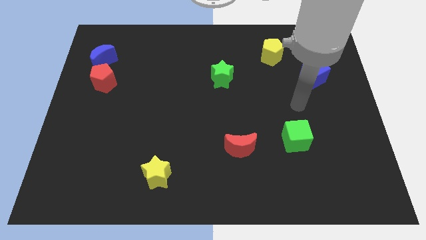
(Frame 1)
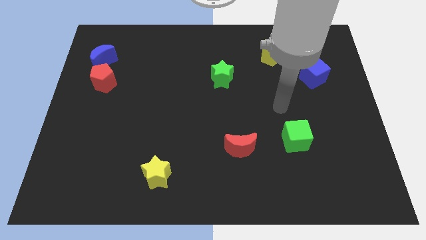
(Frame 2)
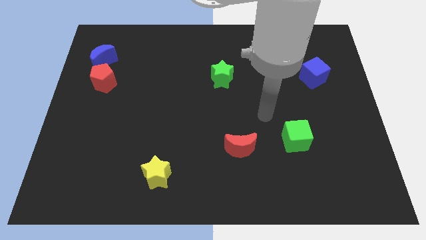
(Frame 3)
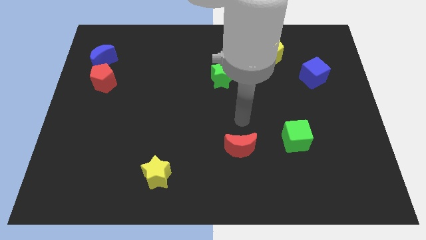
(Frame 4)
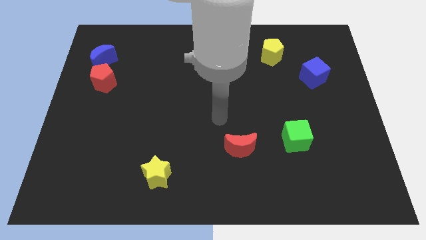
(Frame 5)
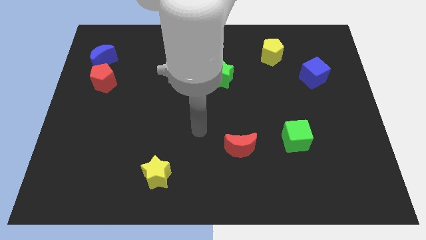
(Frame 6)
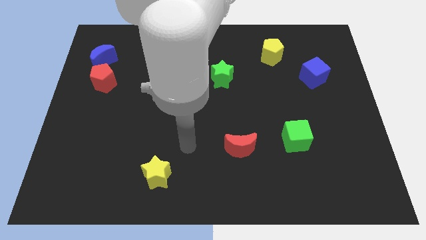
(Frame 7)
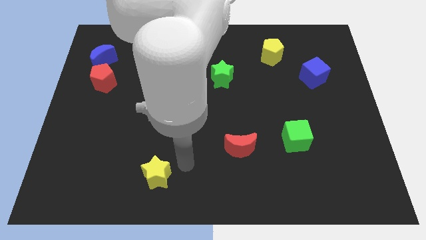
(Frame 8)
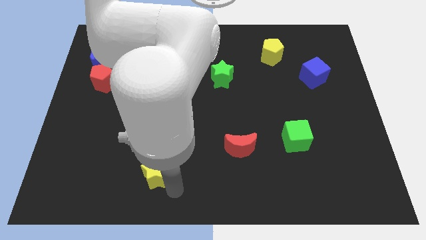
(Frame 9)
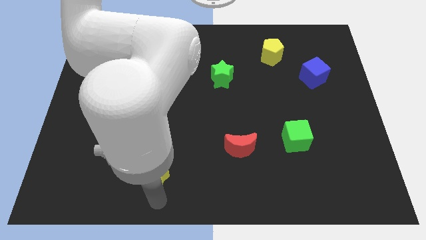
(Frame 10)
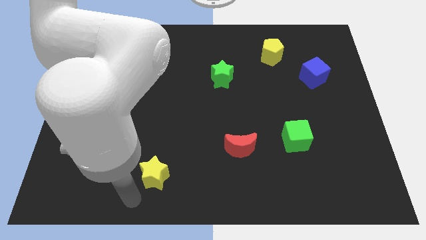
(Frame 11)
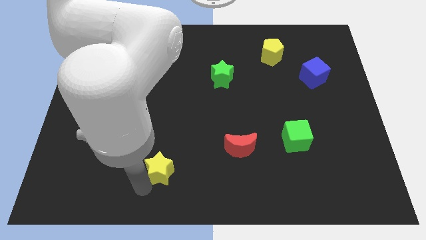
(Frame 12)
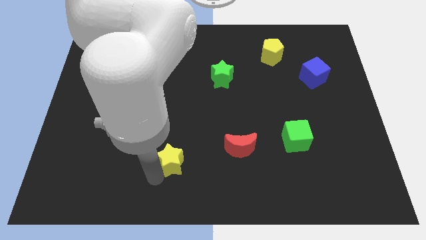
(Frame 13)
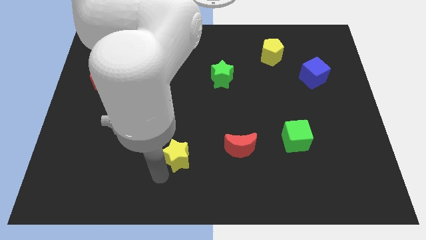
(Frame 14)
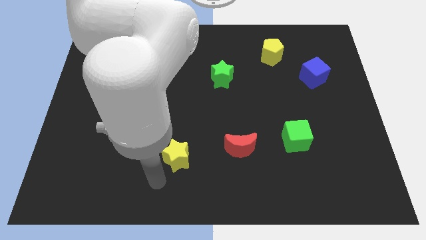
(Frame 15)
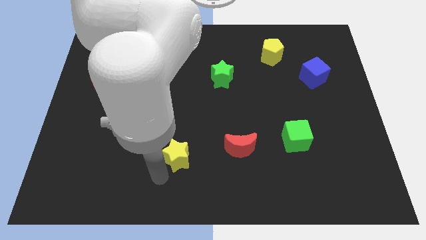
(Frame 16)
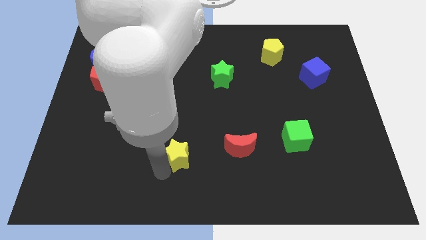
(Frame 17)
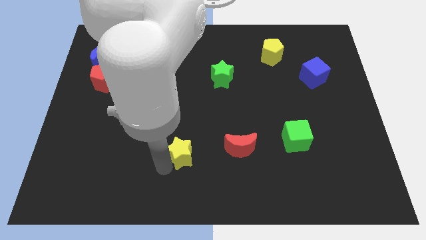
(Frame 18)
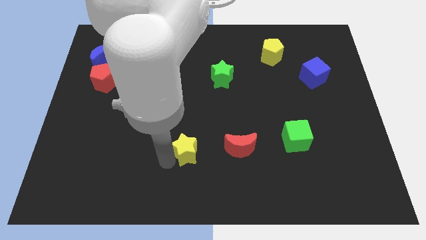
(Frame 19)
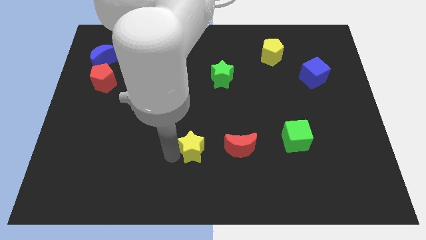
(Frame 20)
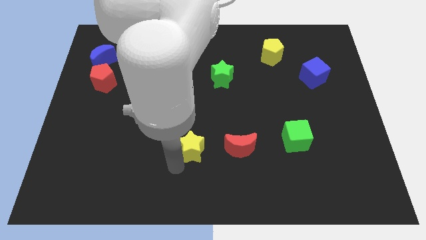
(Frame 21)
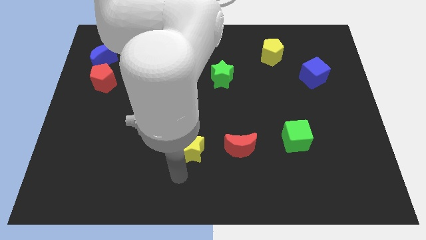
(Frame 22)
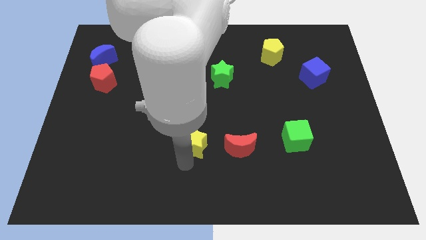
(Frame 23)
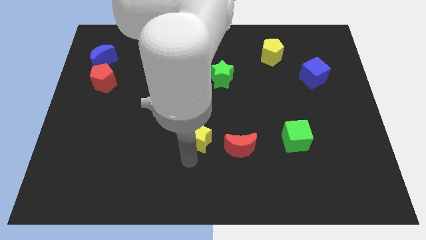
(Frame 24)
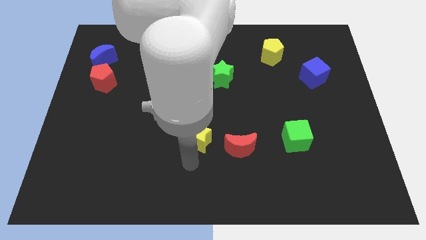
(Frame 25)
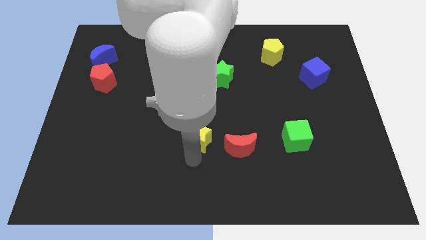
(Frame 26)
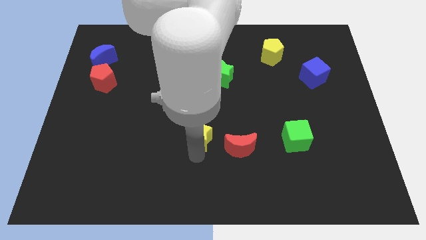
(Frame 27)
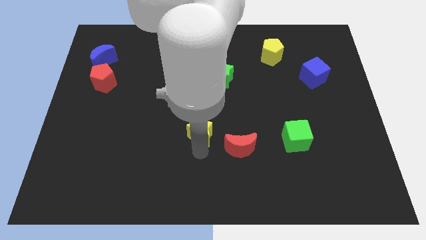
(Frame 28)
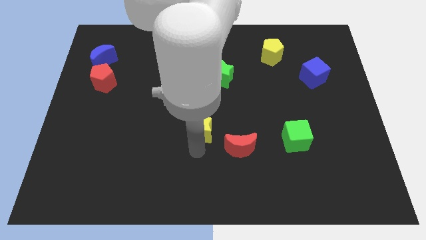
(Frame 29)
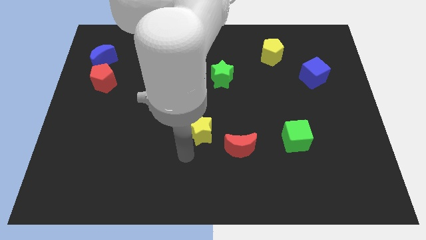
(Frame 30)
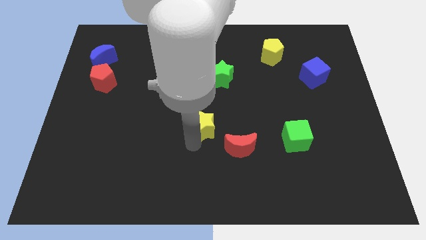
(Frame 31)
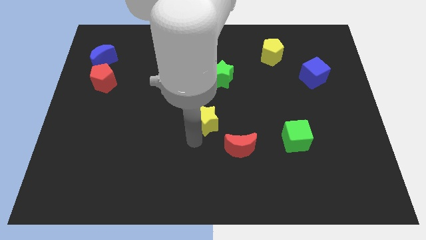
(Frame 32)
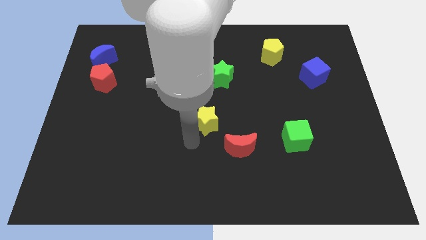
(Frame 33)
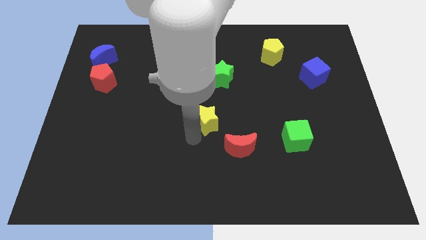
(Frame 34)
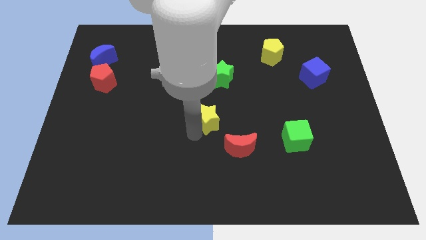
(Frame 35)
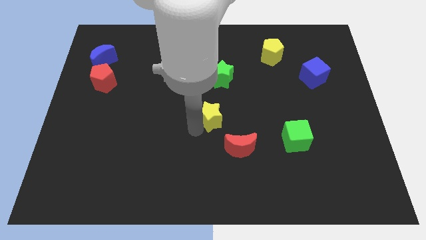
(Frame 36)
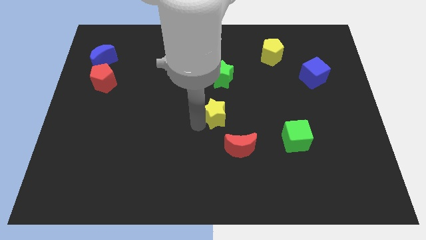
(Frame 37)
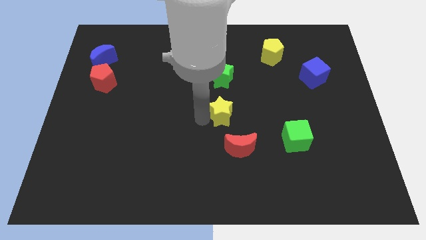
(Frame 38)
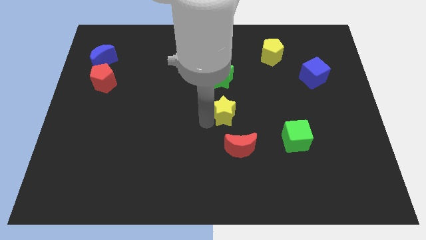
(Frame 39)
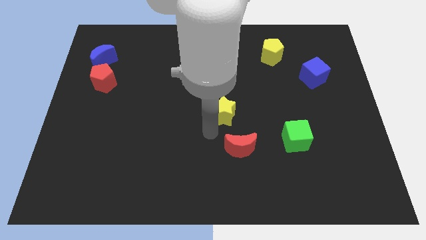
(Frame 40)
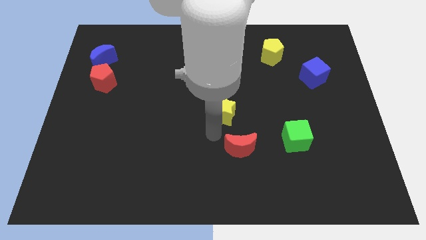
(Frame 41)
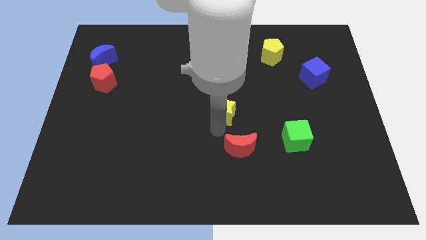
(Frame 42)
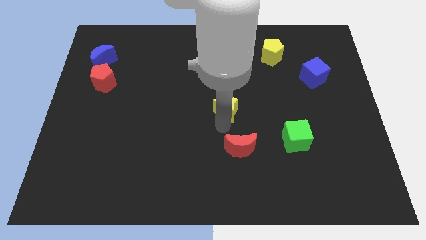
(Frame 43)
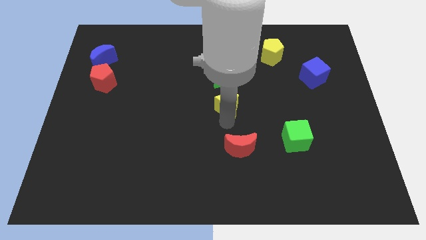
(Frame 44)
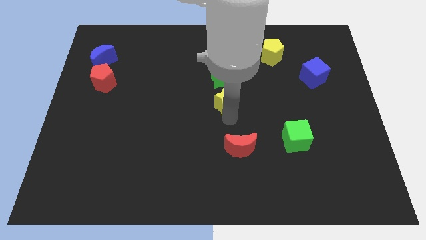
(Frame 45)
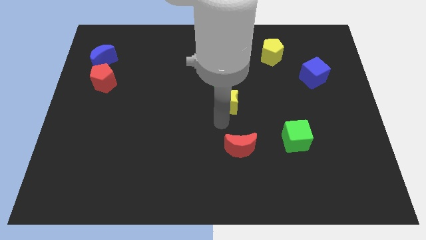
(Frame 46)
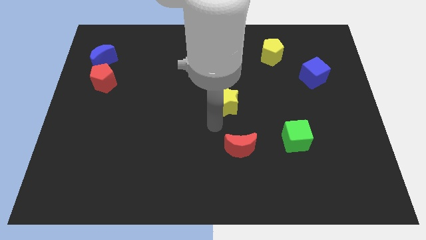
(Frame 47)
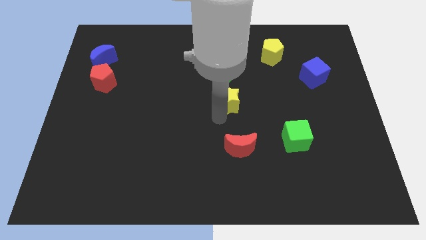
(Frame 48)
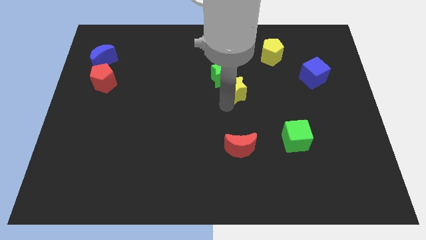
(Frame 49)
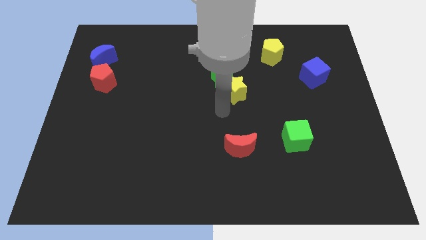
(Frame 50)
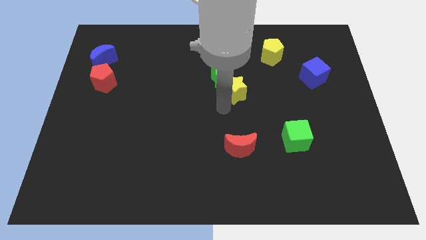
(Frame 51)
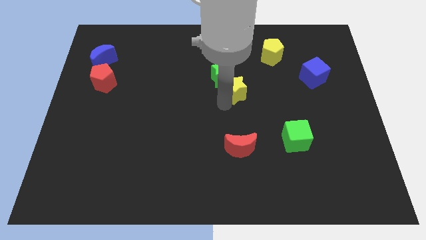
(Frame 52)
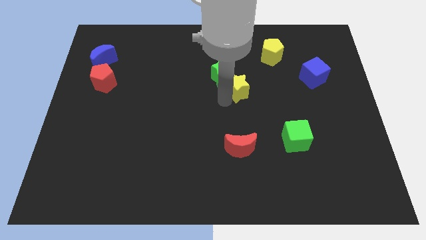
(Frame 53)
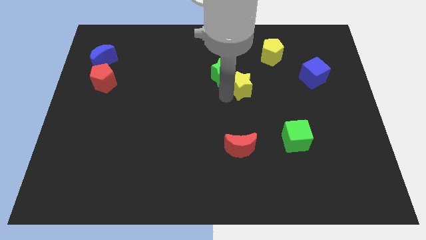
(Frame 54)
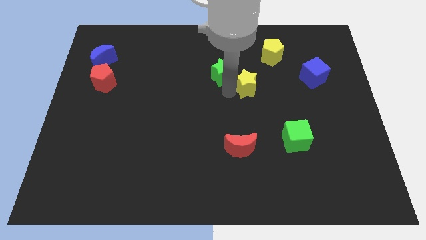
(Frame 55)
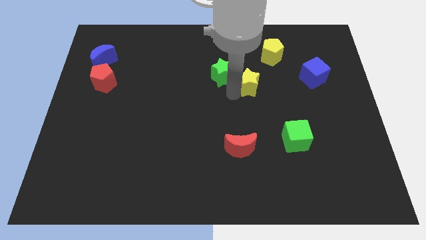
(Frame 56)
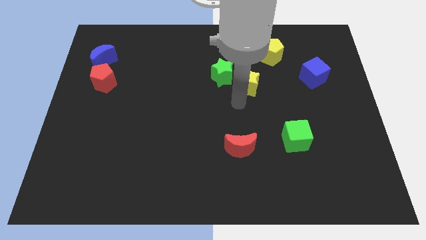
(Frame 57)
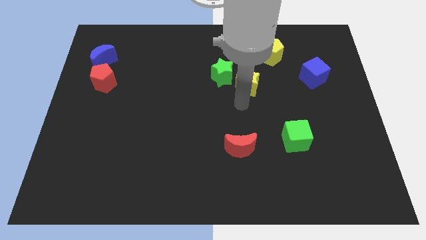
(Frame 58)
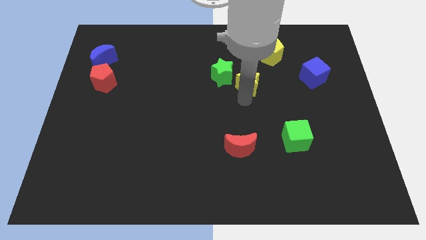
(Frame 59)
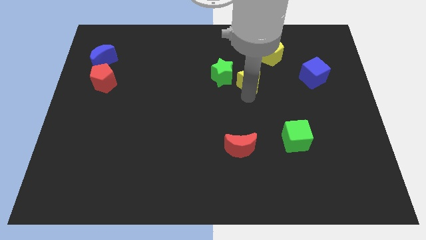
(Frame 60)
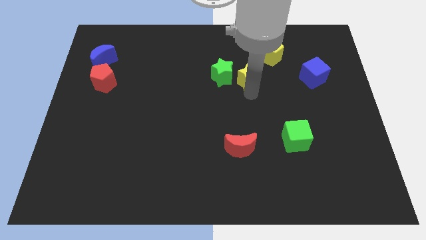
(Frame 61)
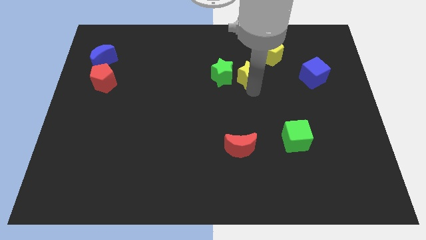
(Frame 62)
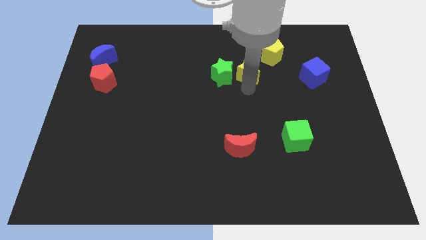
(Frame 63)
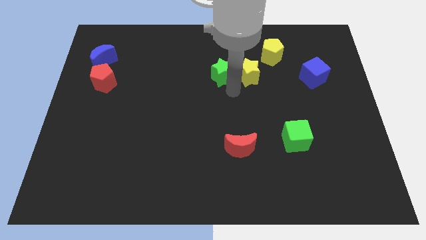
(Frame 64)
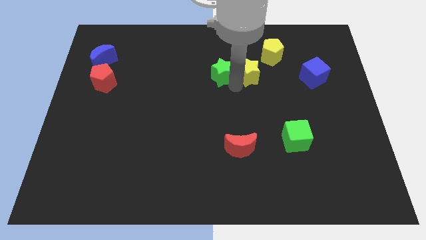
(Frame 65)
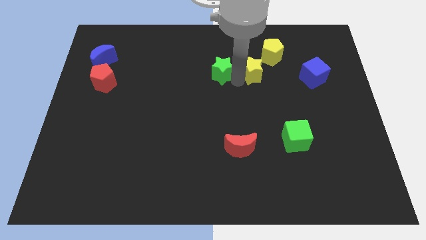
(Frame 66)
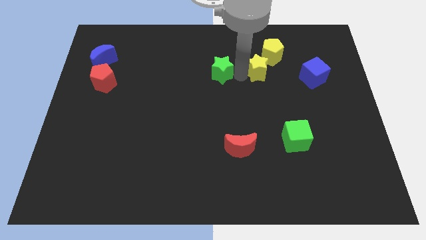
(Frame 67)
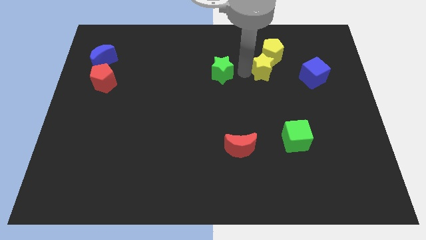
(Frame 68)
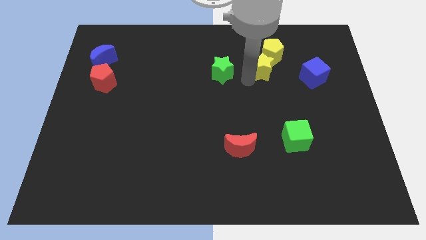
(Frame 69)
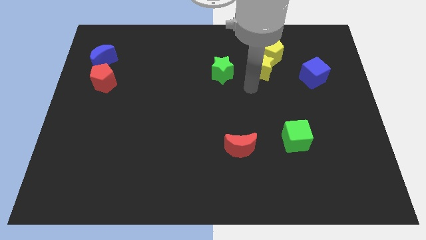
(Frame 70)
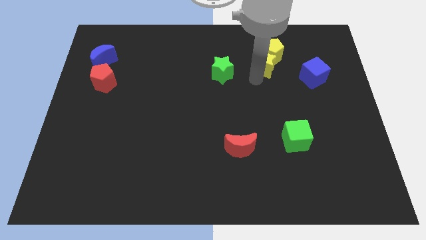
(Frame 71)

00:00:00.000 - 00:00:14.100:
move the yellow star next to the yellow pentagon
